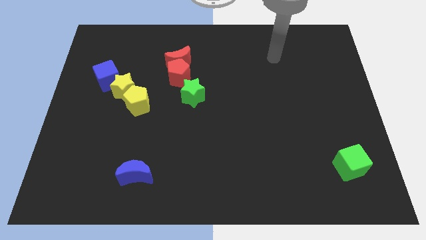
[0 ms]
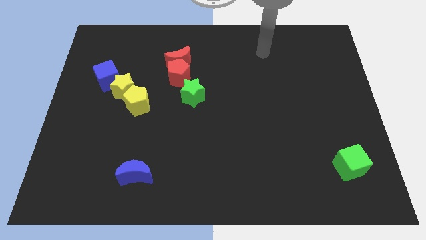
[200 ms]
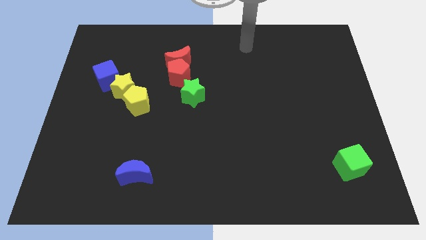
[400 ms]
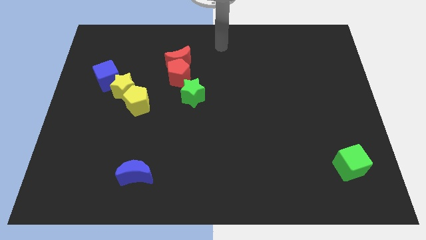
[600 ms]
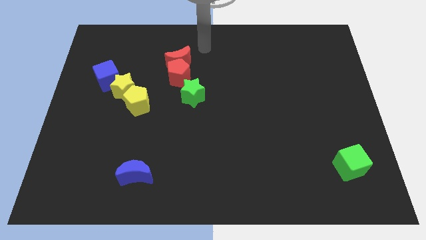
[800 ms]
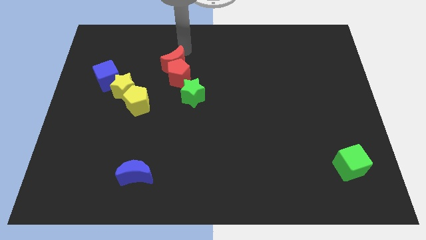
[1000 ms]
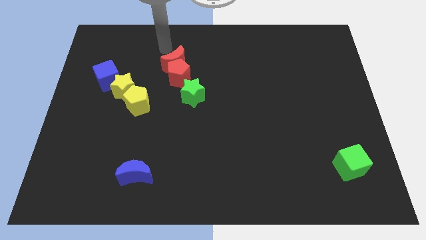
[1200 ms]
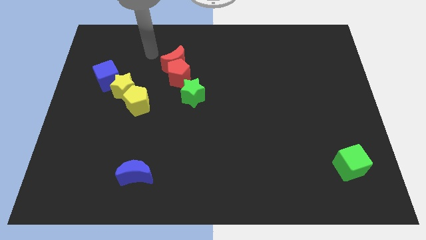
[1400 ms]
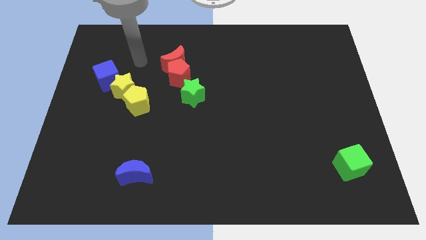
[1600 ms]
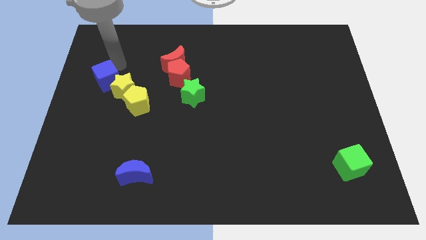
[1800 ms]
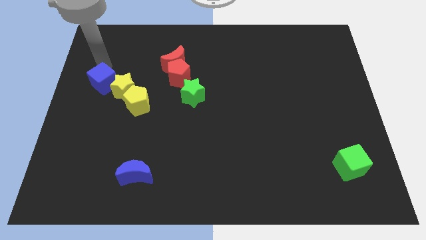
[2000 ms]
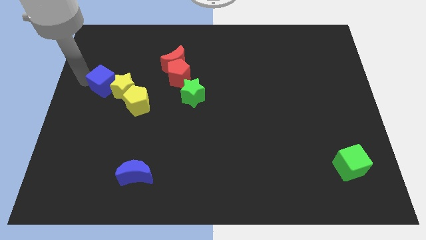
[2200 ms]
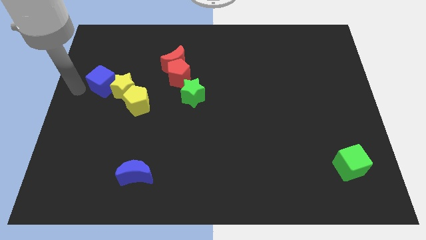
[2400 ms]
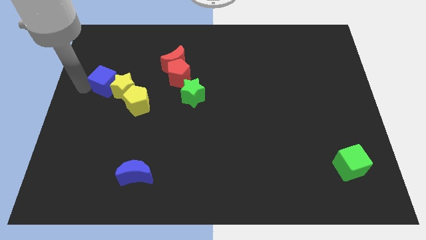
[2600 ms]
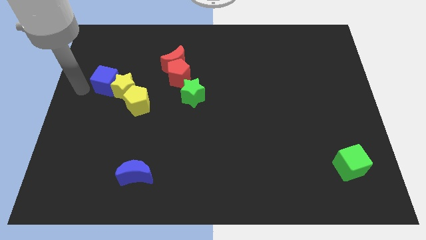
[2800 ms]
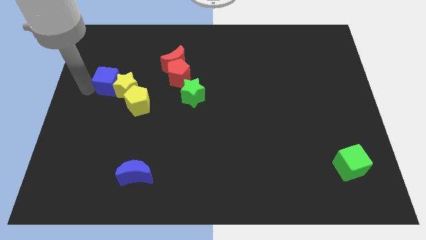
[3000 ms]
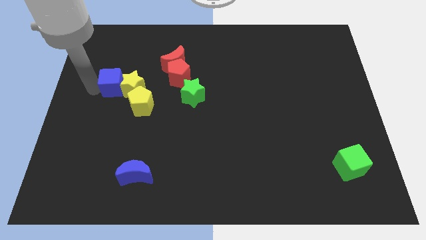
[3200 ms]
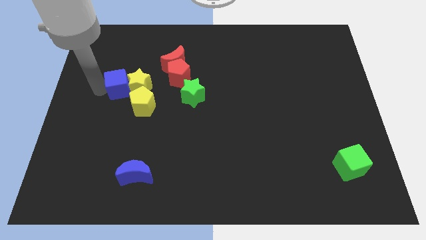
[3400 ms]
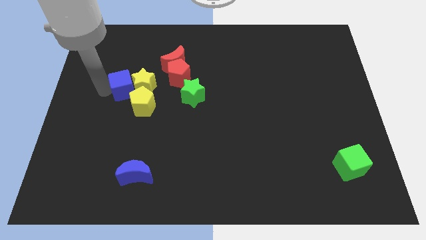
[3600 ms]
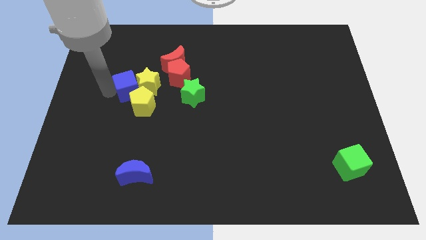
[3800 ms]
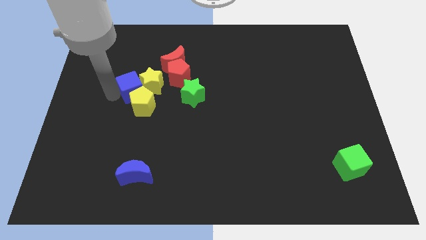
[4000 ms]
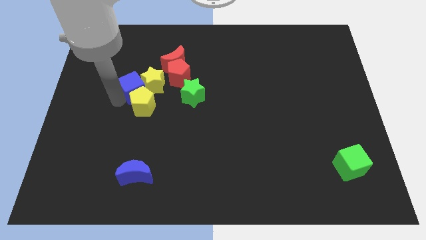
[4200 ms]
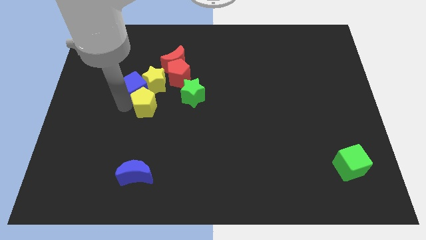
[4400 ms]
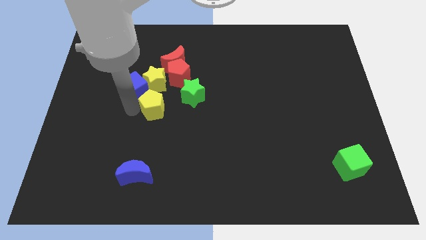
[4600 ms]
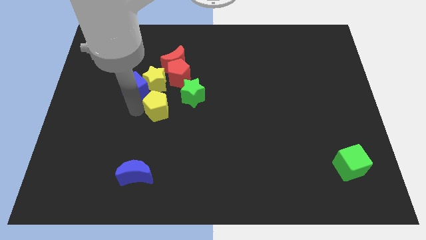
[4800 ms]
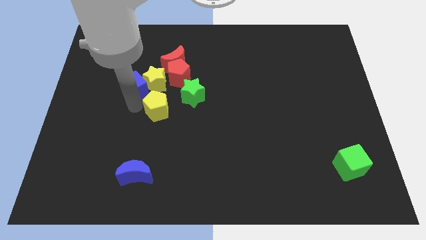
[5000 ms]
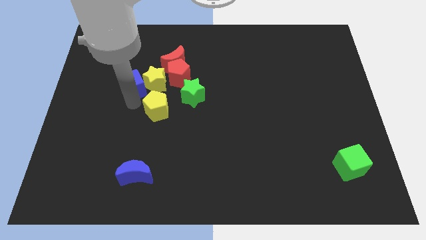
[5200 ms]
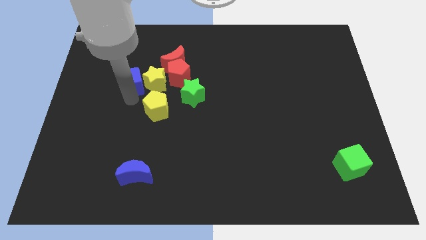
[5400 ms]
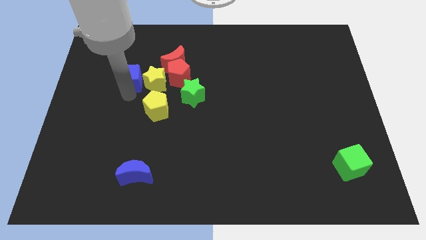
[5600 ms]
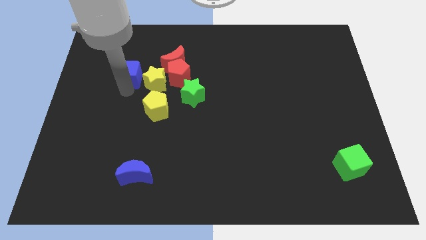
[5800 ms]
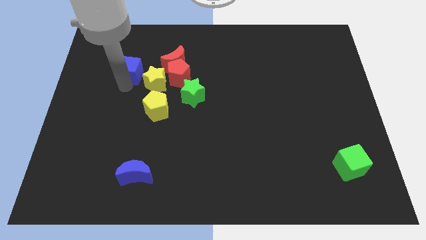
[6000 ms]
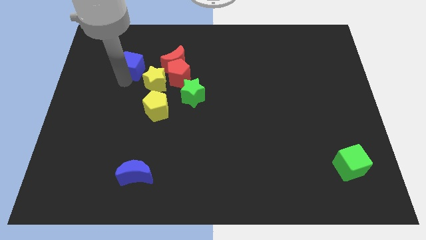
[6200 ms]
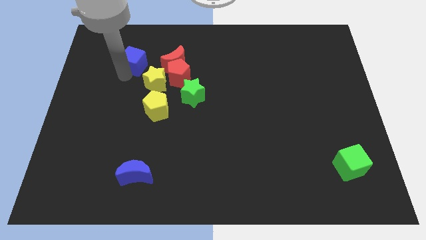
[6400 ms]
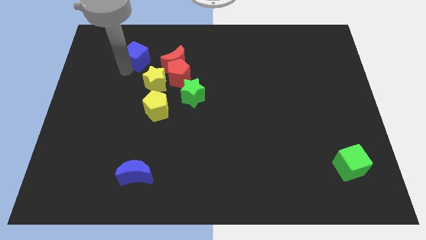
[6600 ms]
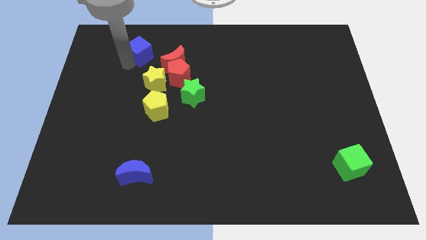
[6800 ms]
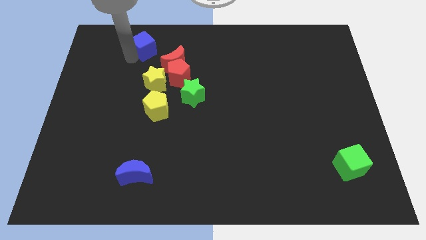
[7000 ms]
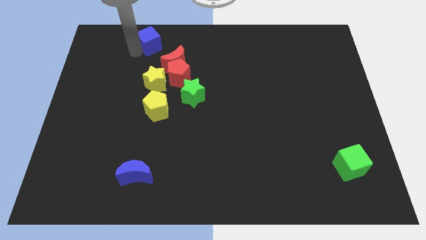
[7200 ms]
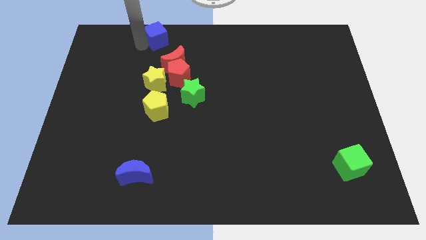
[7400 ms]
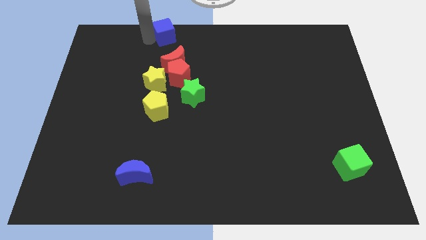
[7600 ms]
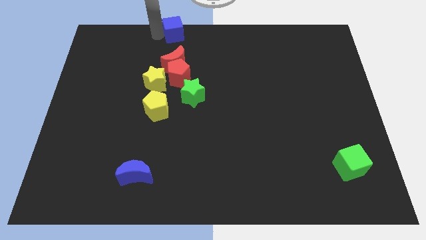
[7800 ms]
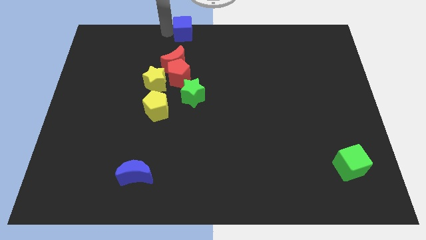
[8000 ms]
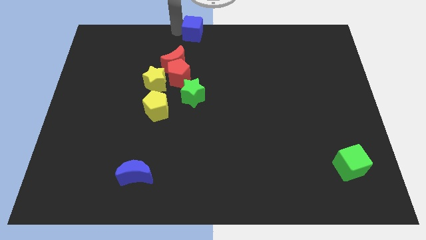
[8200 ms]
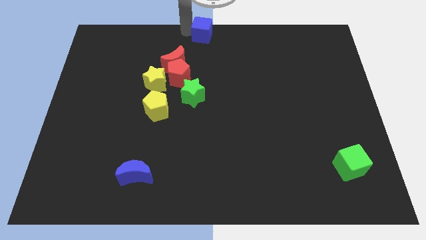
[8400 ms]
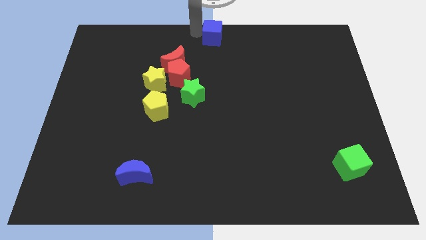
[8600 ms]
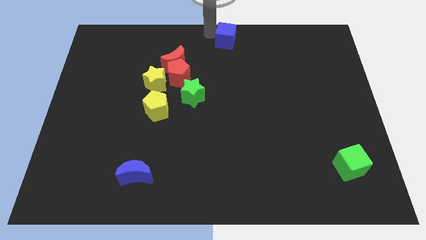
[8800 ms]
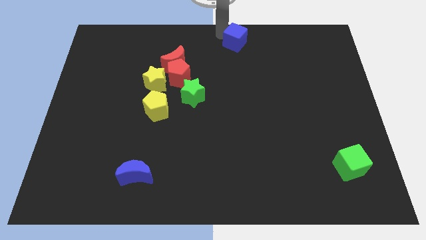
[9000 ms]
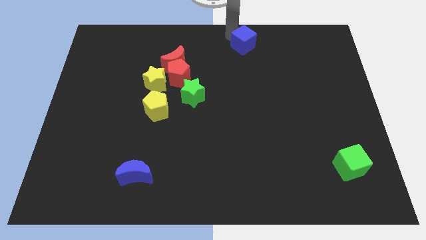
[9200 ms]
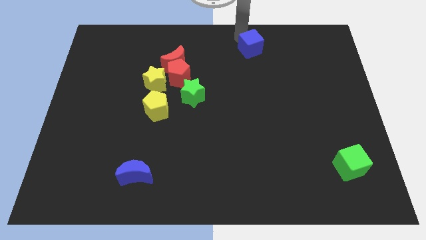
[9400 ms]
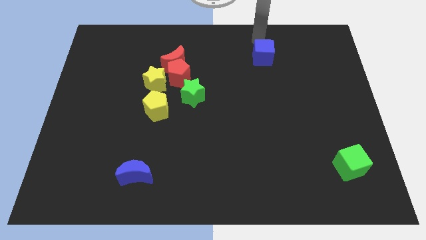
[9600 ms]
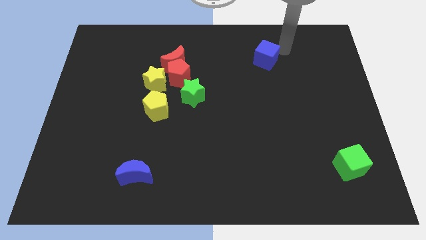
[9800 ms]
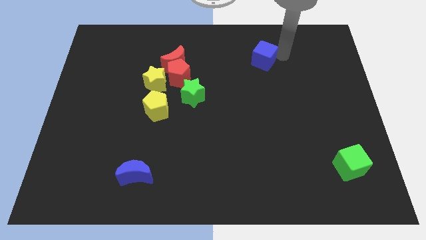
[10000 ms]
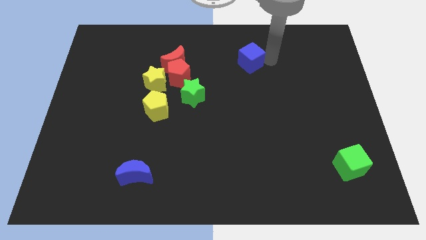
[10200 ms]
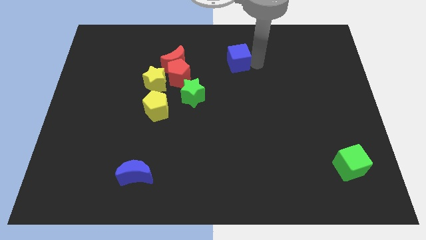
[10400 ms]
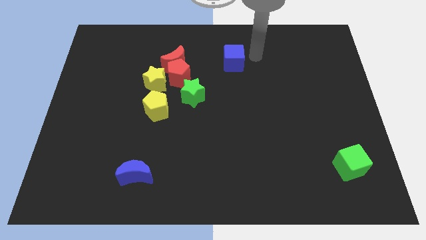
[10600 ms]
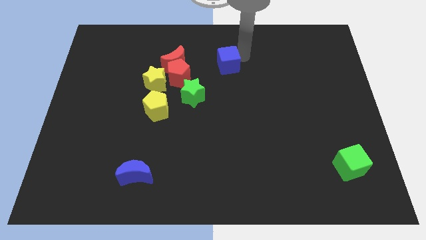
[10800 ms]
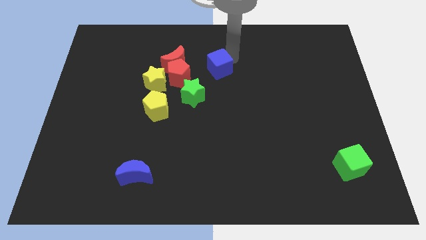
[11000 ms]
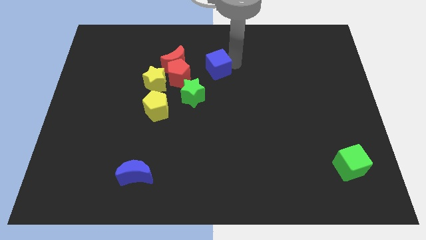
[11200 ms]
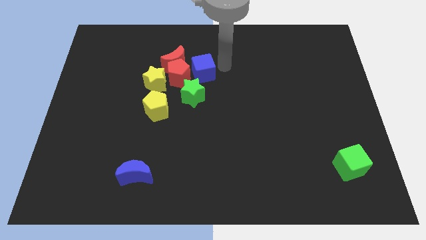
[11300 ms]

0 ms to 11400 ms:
push the blue cube towards the red pentagon
